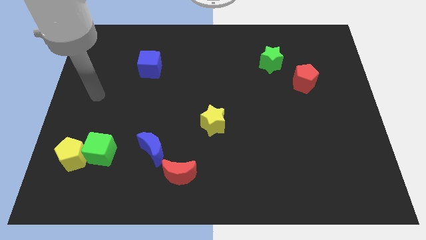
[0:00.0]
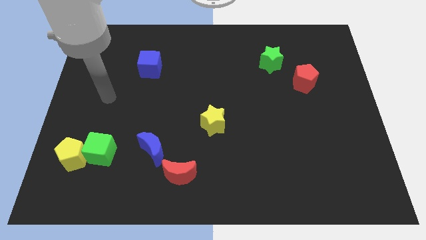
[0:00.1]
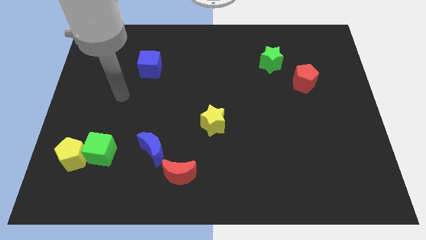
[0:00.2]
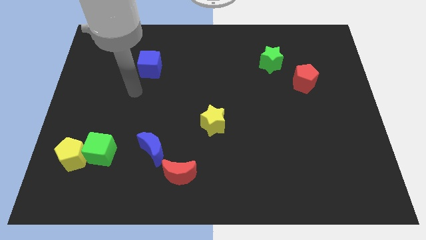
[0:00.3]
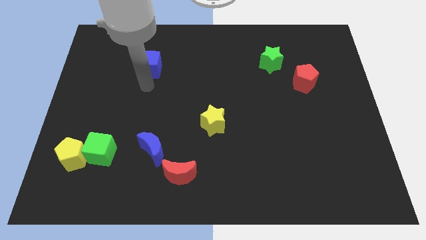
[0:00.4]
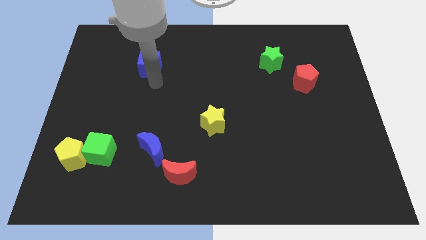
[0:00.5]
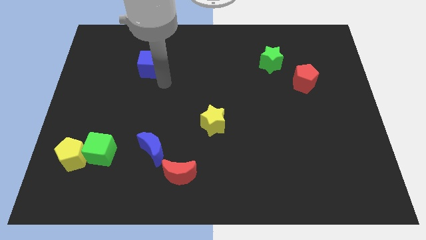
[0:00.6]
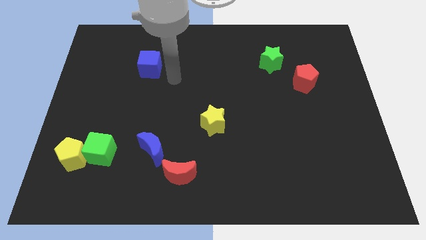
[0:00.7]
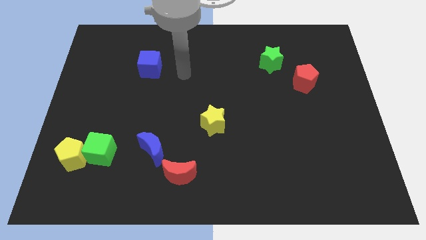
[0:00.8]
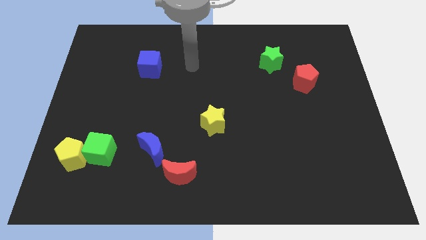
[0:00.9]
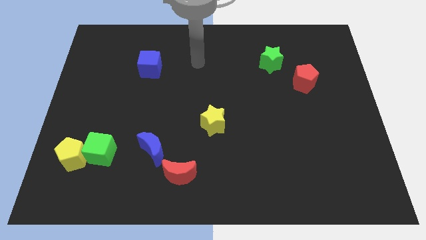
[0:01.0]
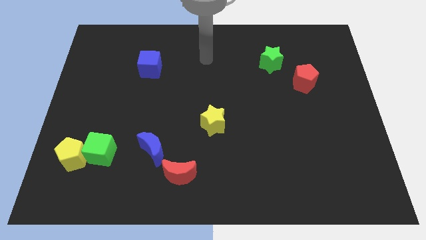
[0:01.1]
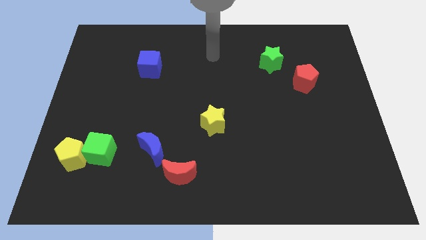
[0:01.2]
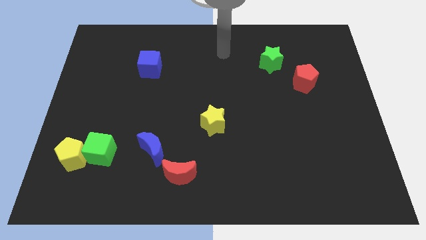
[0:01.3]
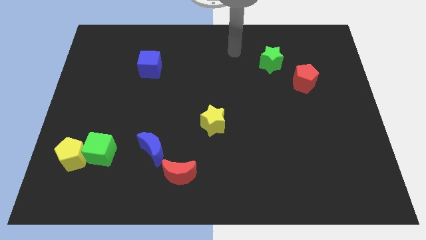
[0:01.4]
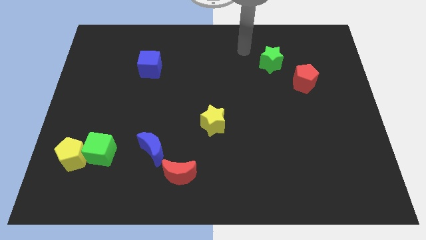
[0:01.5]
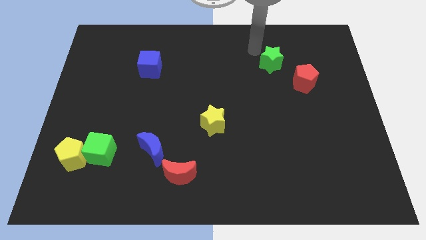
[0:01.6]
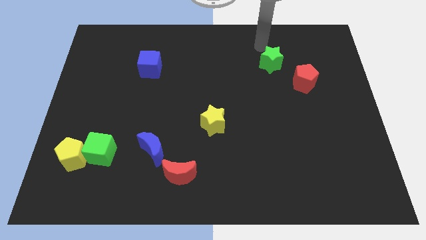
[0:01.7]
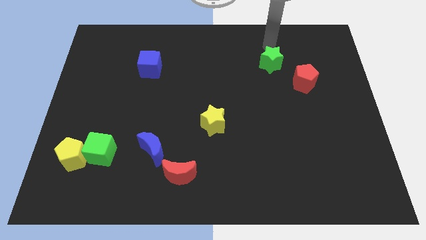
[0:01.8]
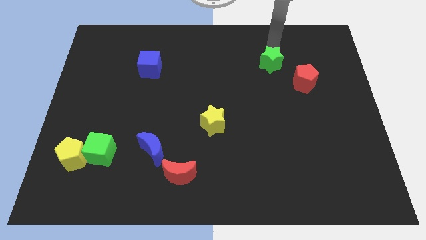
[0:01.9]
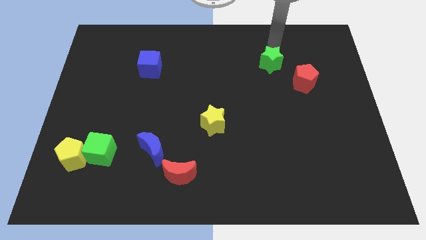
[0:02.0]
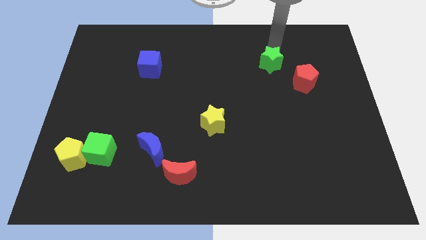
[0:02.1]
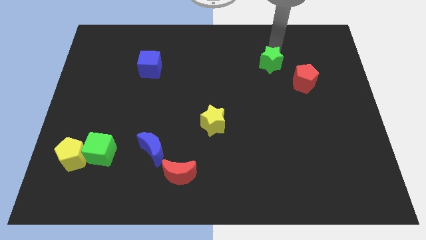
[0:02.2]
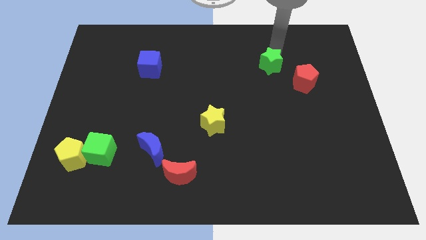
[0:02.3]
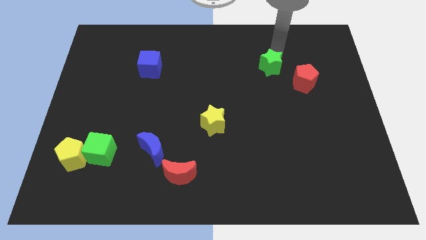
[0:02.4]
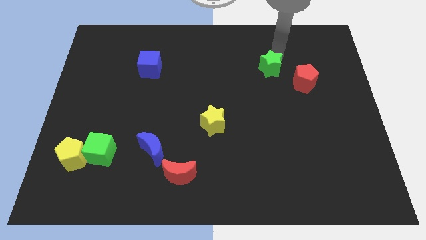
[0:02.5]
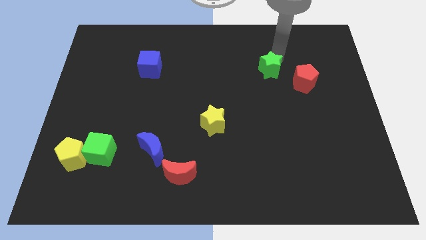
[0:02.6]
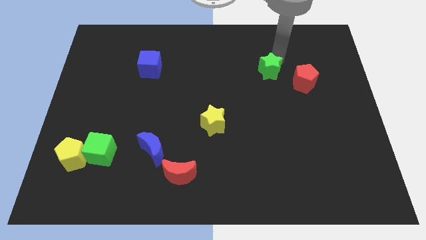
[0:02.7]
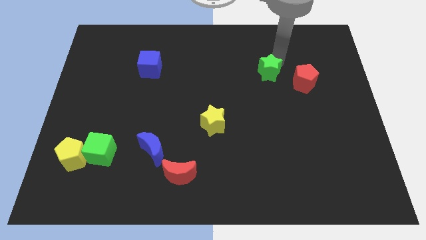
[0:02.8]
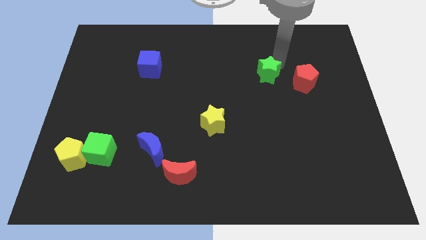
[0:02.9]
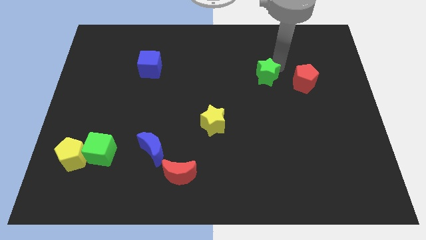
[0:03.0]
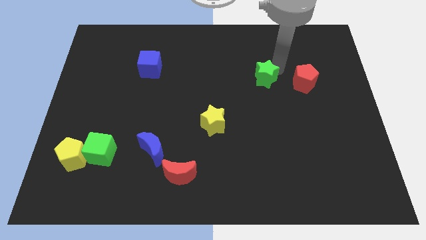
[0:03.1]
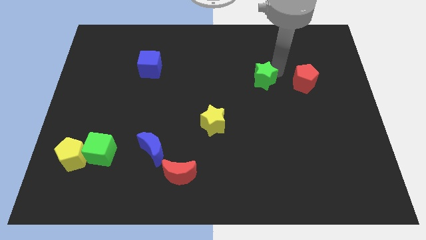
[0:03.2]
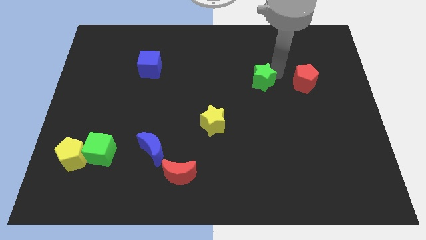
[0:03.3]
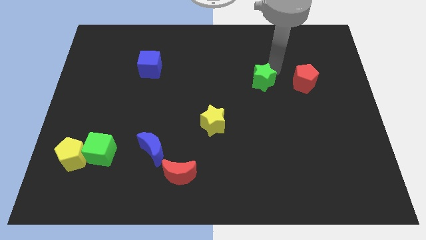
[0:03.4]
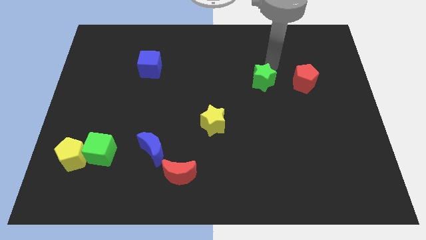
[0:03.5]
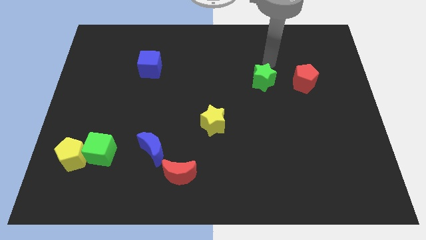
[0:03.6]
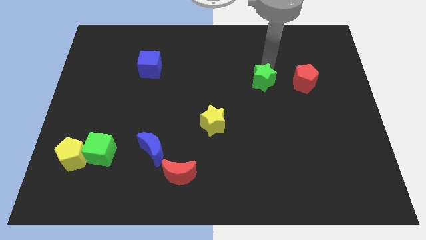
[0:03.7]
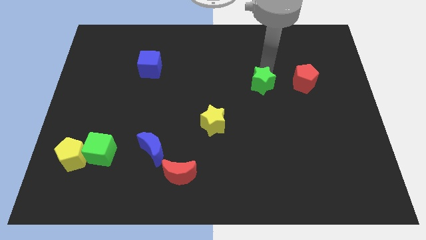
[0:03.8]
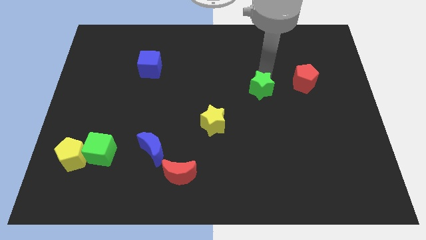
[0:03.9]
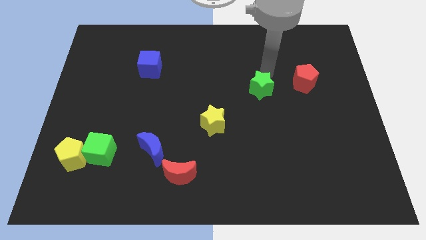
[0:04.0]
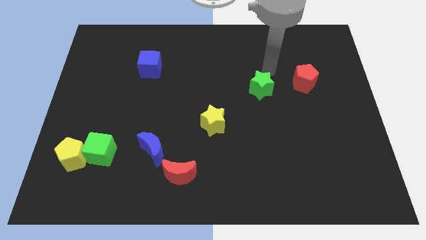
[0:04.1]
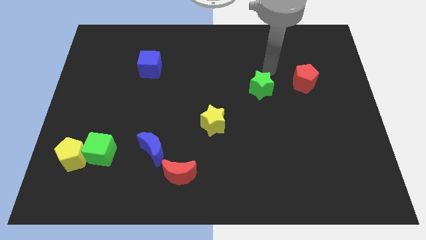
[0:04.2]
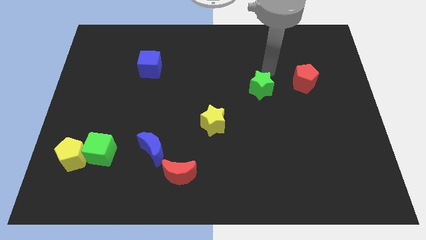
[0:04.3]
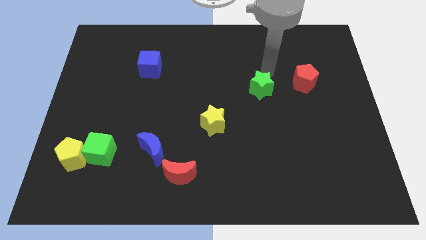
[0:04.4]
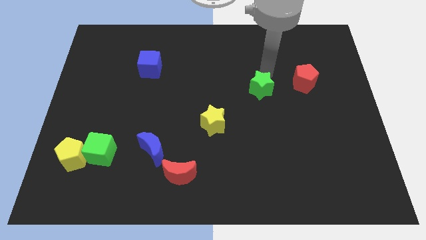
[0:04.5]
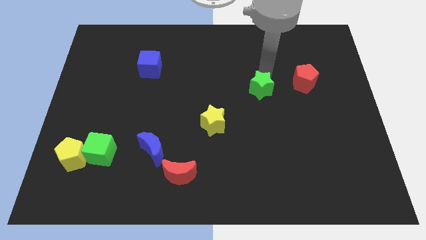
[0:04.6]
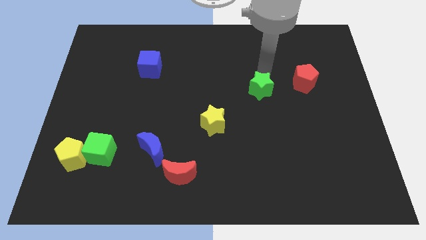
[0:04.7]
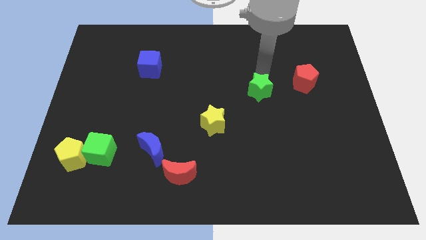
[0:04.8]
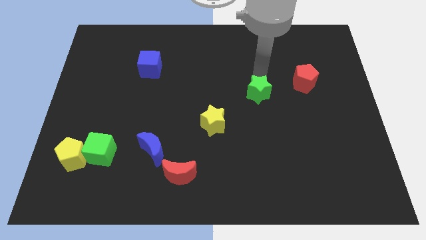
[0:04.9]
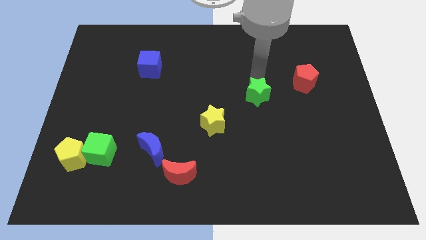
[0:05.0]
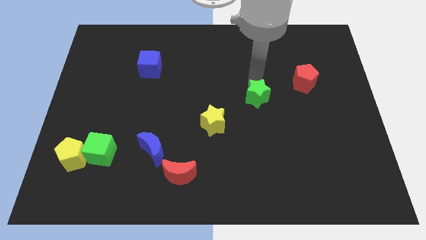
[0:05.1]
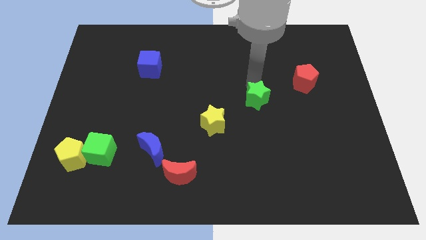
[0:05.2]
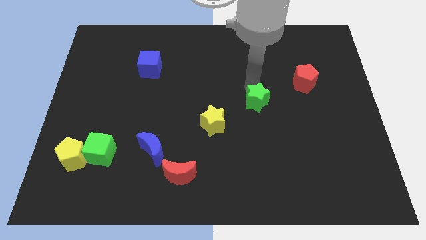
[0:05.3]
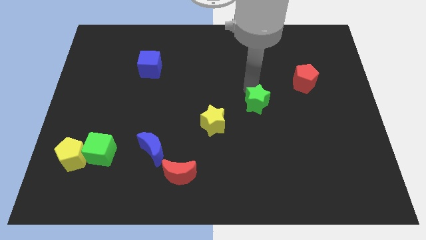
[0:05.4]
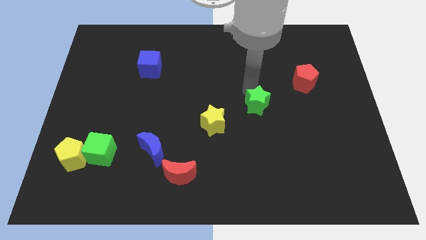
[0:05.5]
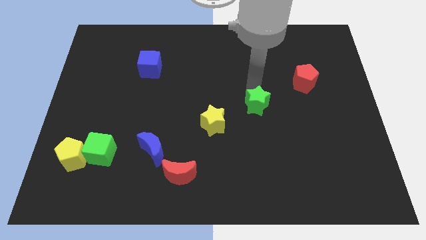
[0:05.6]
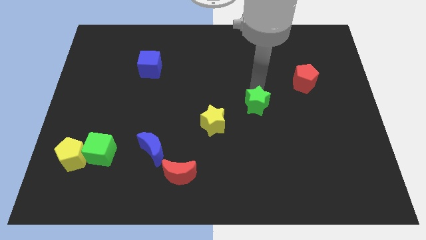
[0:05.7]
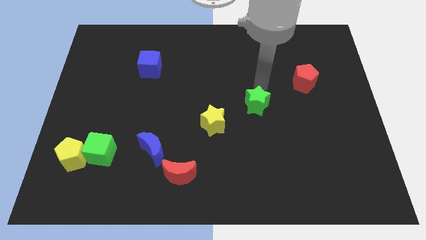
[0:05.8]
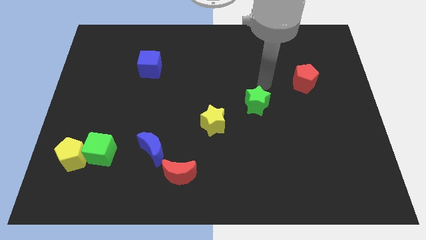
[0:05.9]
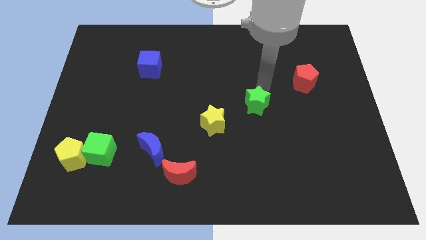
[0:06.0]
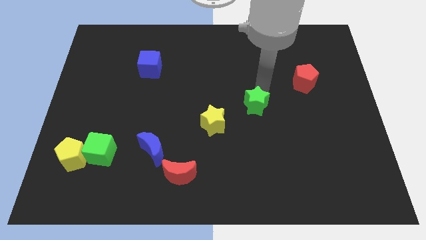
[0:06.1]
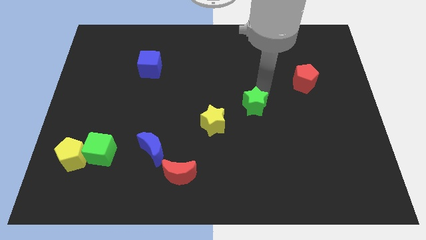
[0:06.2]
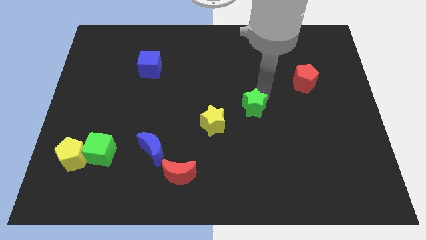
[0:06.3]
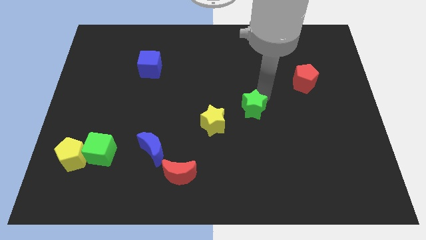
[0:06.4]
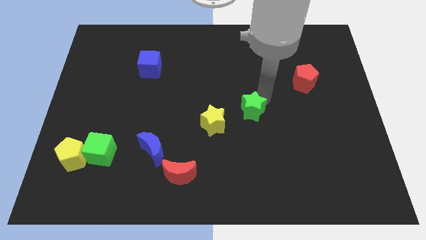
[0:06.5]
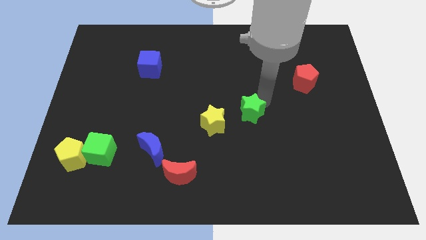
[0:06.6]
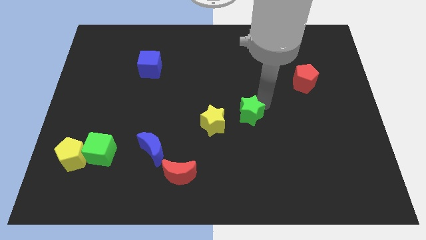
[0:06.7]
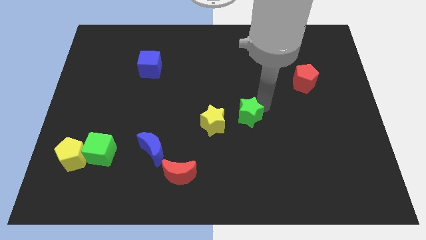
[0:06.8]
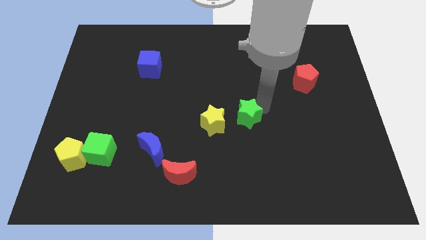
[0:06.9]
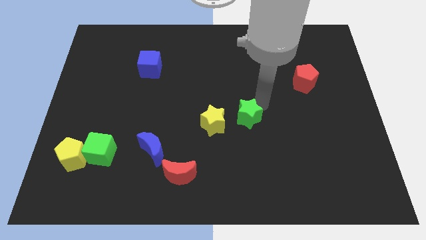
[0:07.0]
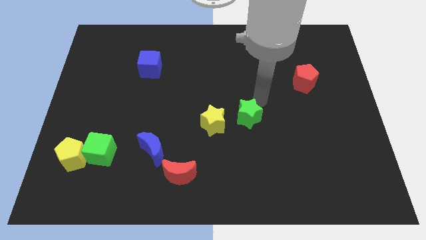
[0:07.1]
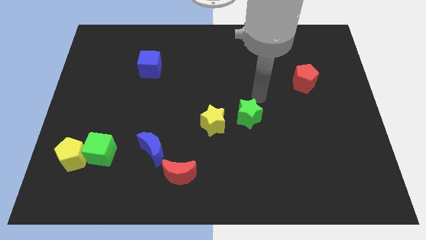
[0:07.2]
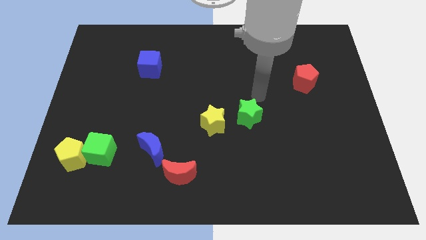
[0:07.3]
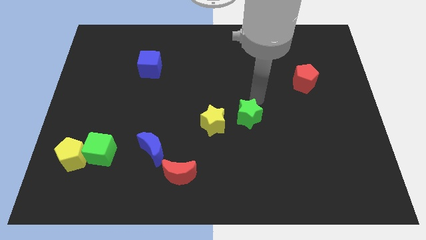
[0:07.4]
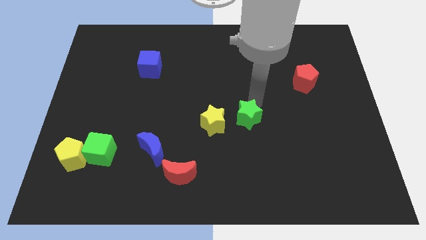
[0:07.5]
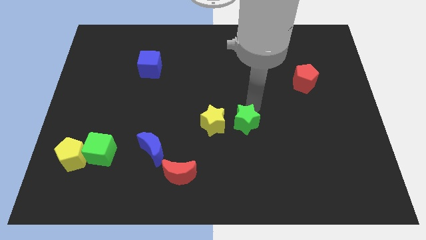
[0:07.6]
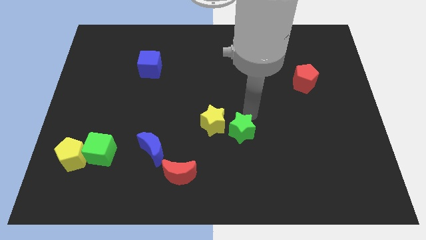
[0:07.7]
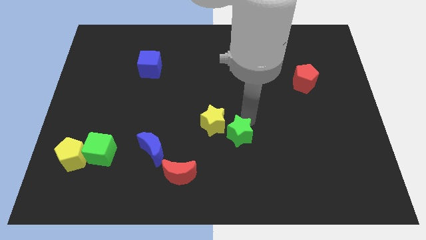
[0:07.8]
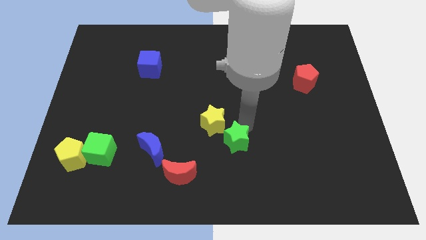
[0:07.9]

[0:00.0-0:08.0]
push the green star below the yellow star
